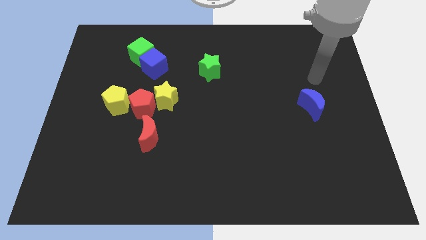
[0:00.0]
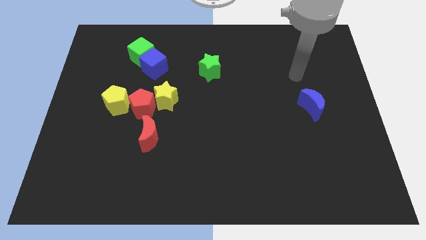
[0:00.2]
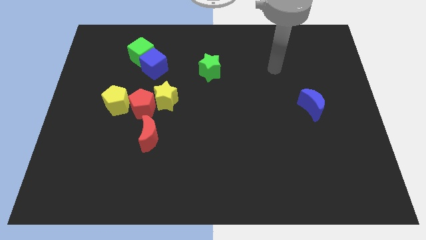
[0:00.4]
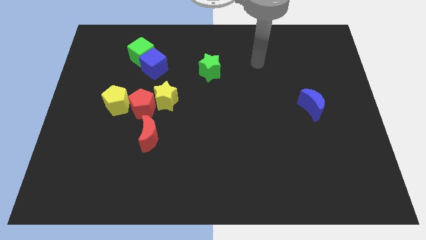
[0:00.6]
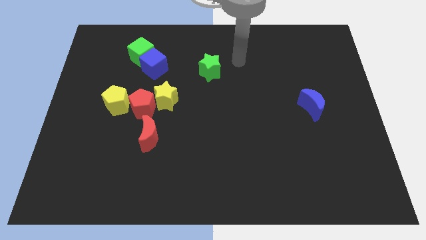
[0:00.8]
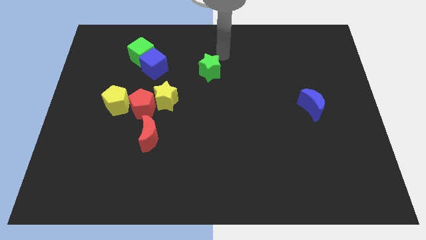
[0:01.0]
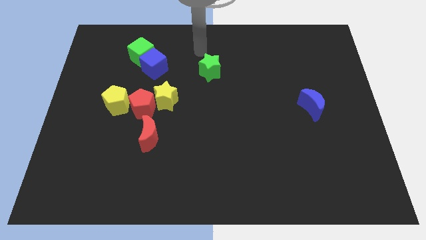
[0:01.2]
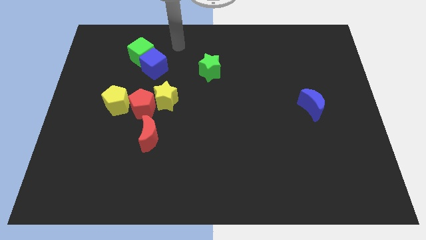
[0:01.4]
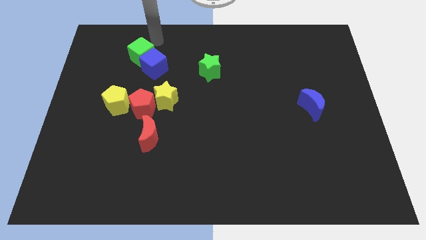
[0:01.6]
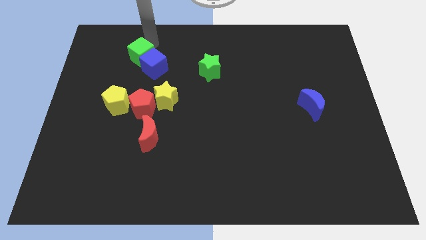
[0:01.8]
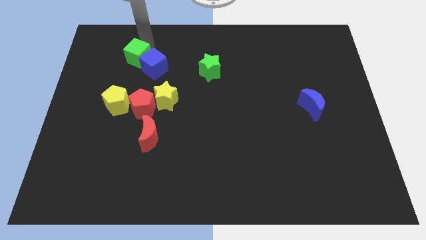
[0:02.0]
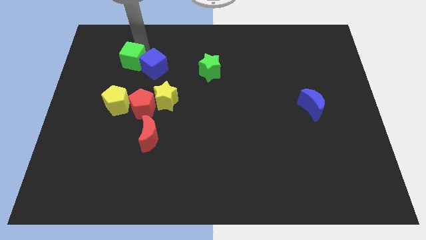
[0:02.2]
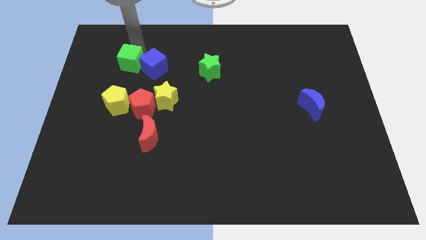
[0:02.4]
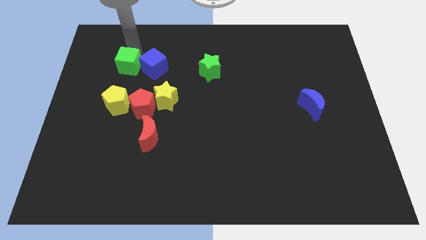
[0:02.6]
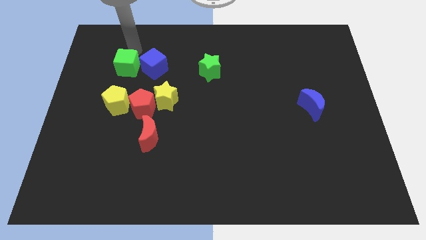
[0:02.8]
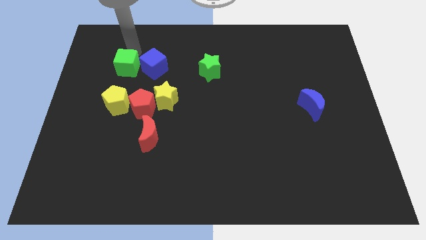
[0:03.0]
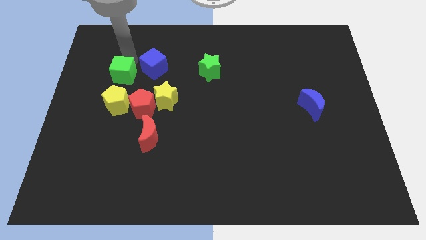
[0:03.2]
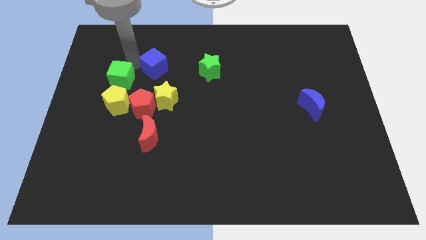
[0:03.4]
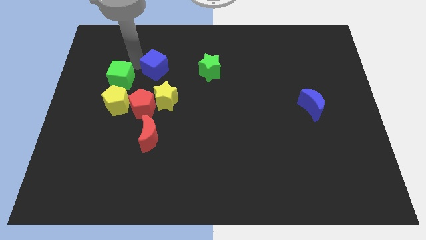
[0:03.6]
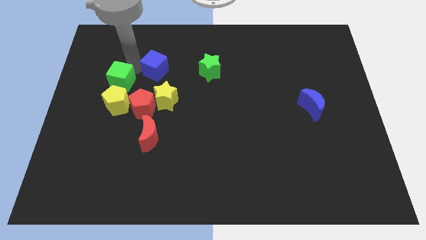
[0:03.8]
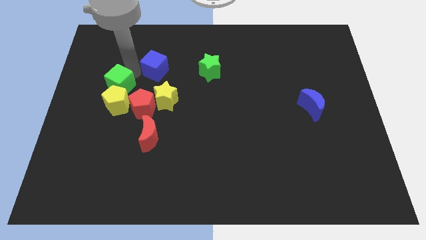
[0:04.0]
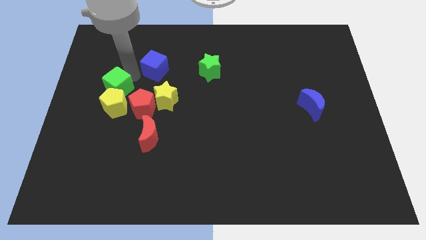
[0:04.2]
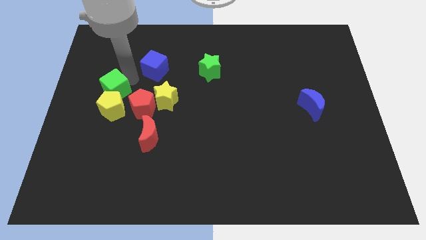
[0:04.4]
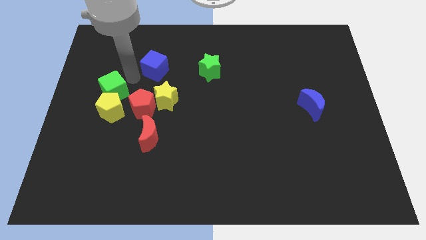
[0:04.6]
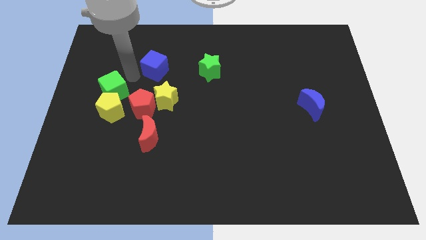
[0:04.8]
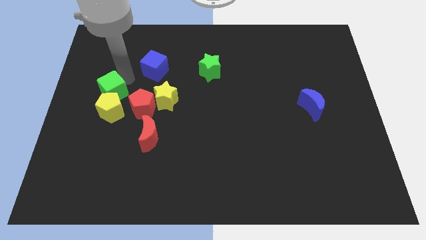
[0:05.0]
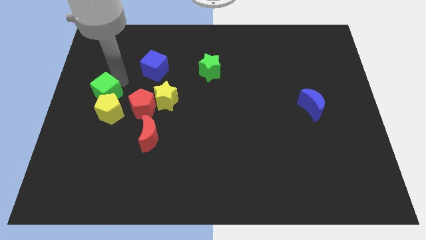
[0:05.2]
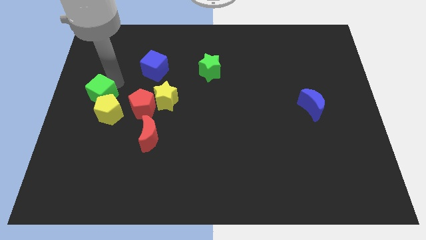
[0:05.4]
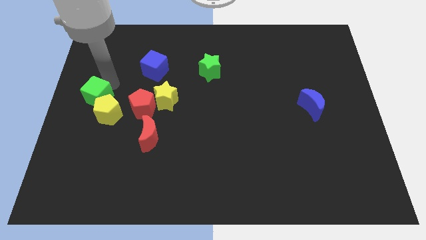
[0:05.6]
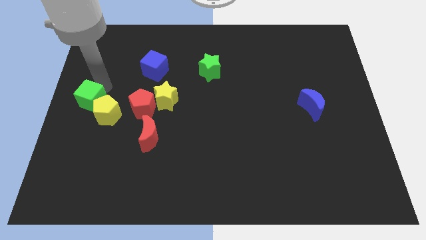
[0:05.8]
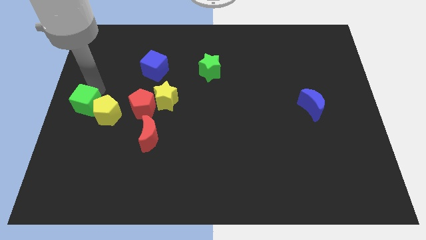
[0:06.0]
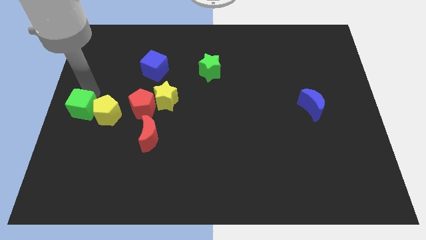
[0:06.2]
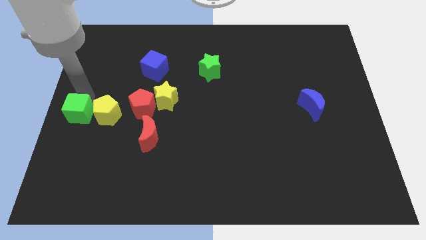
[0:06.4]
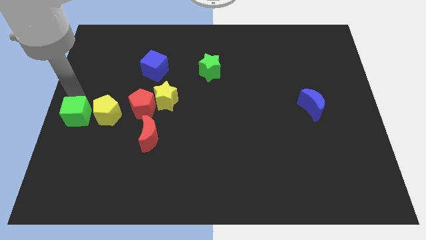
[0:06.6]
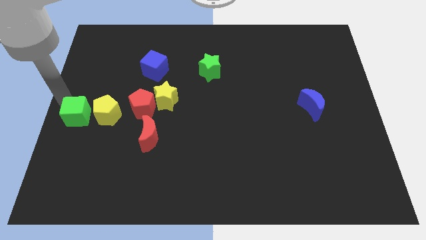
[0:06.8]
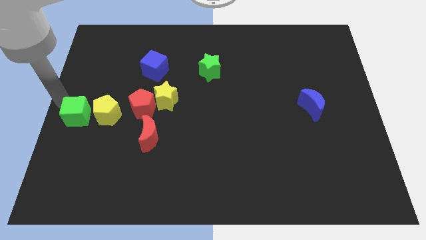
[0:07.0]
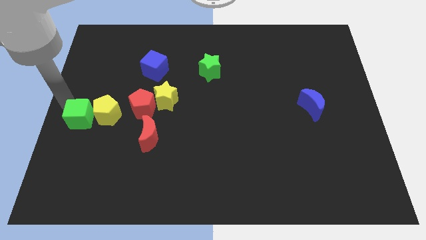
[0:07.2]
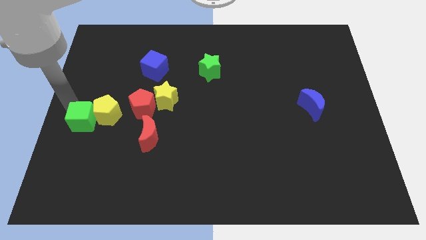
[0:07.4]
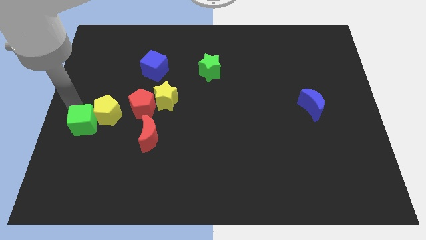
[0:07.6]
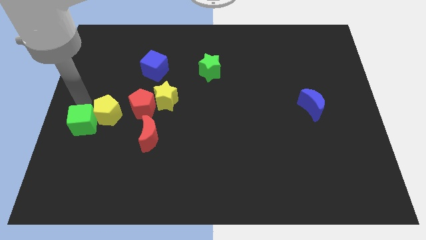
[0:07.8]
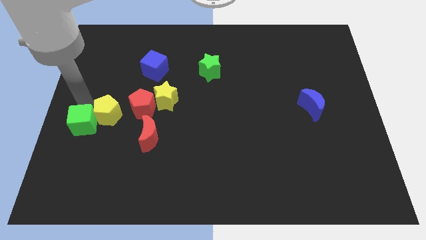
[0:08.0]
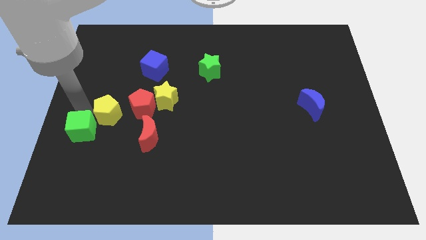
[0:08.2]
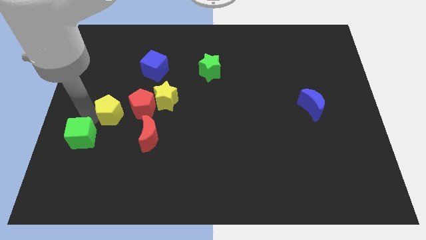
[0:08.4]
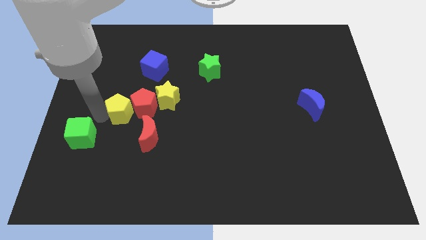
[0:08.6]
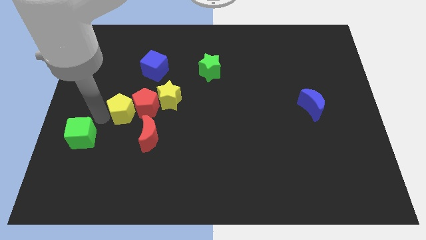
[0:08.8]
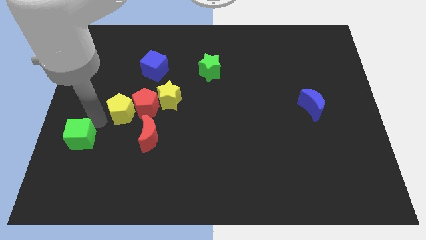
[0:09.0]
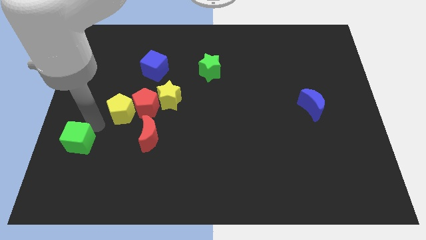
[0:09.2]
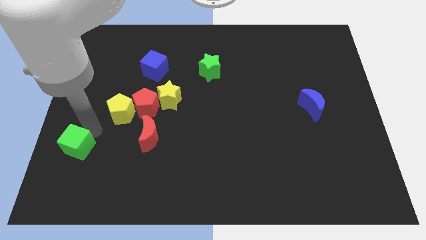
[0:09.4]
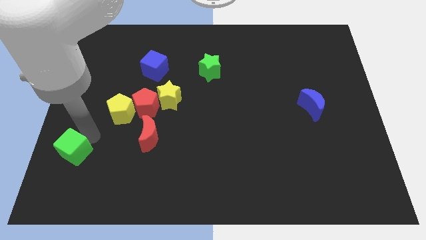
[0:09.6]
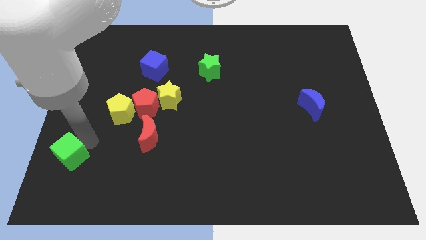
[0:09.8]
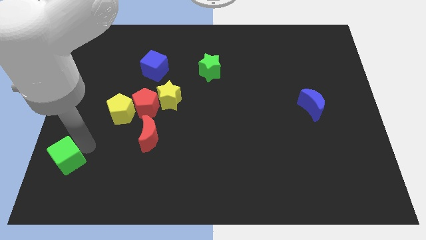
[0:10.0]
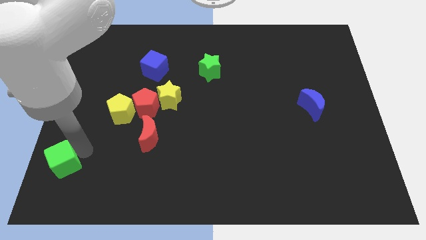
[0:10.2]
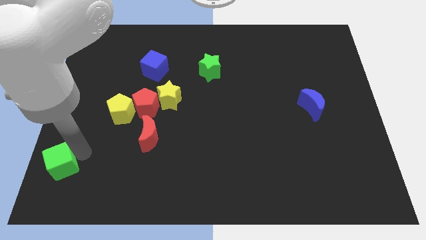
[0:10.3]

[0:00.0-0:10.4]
move the green cube to the bottom left

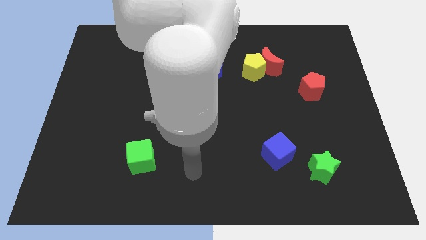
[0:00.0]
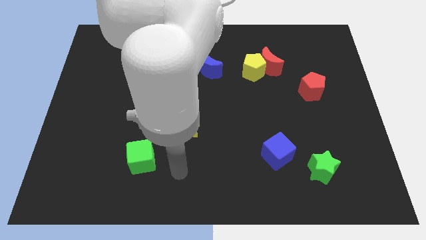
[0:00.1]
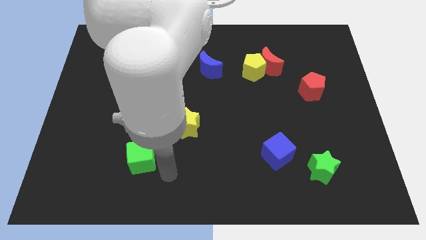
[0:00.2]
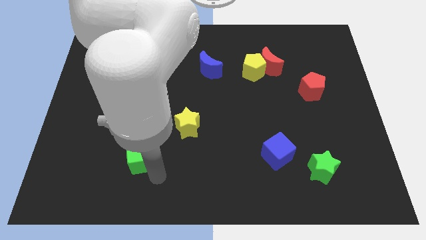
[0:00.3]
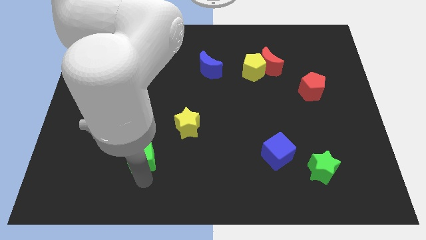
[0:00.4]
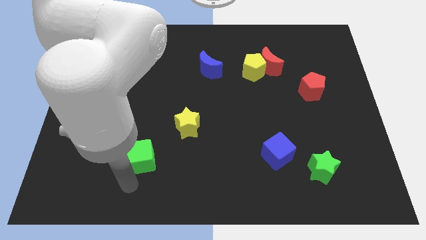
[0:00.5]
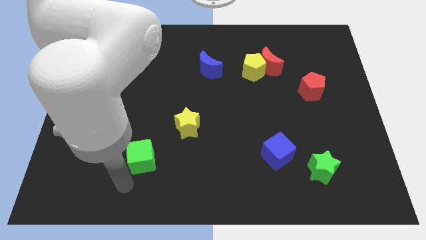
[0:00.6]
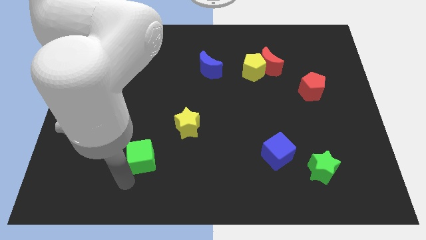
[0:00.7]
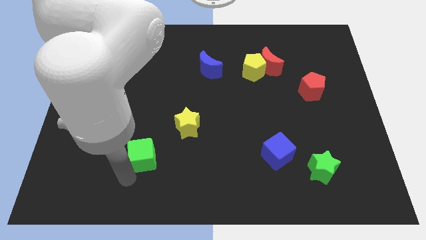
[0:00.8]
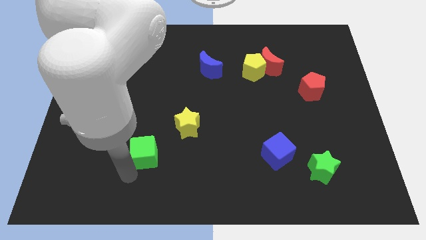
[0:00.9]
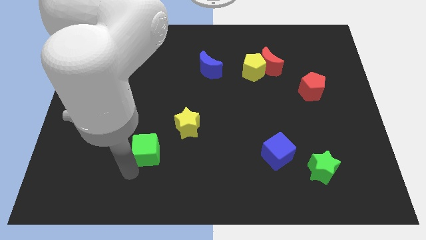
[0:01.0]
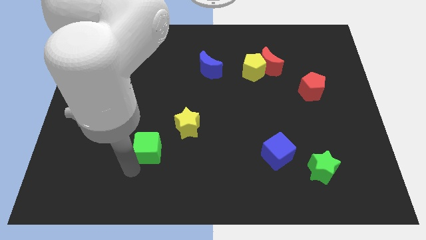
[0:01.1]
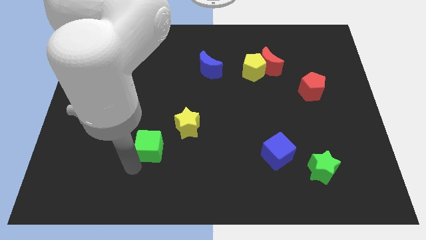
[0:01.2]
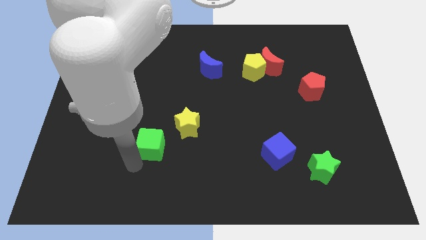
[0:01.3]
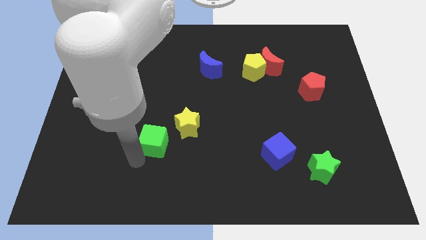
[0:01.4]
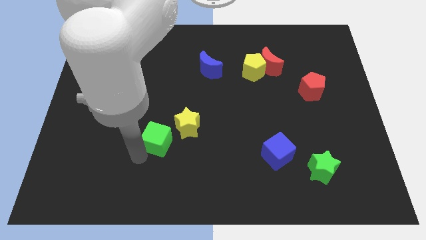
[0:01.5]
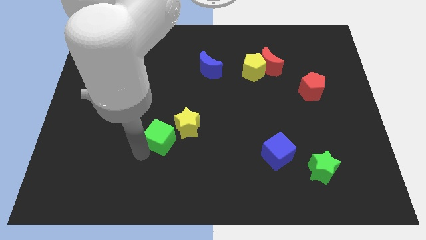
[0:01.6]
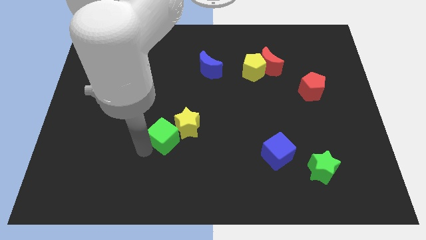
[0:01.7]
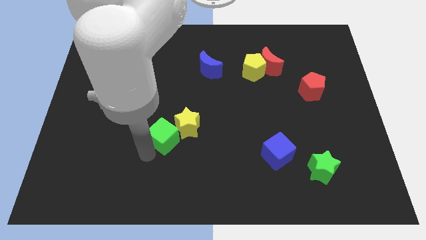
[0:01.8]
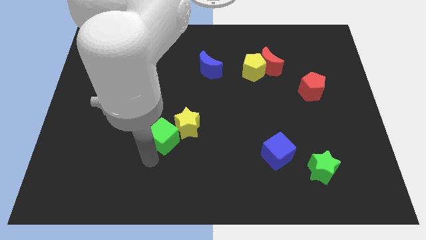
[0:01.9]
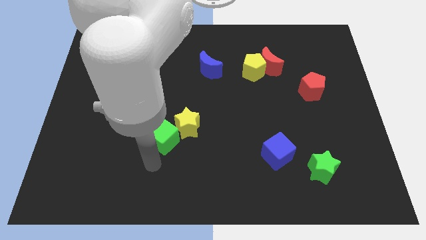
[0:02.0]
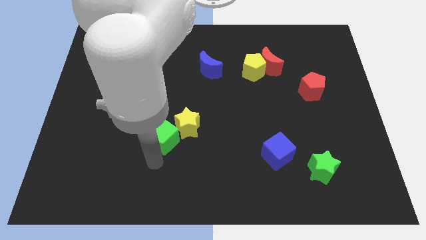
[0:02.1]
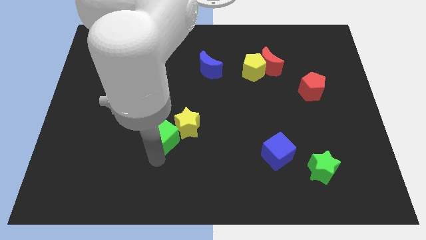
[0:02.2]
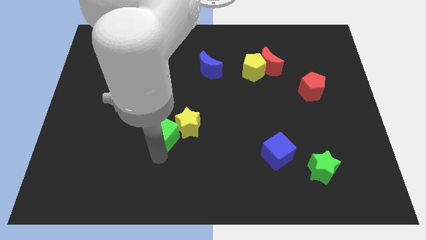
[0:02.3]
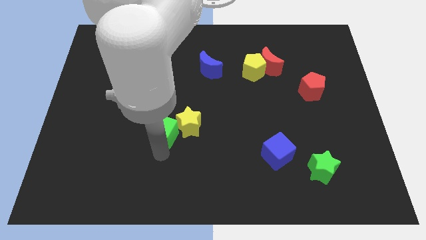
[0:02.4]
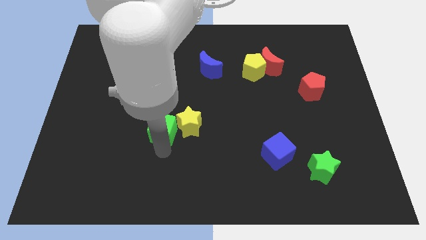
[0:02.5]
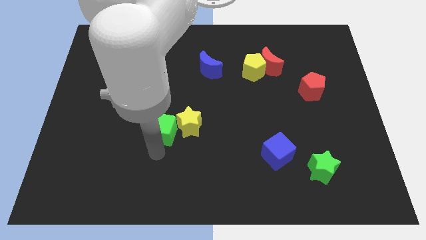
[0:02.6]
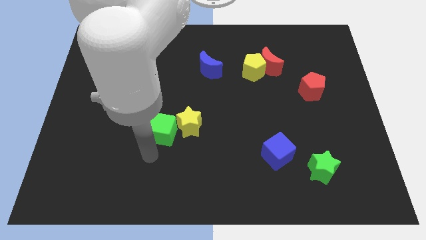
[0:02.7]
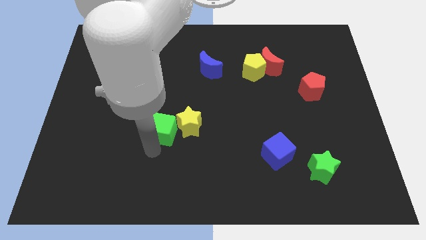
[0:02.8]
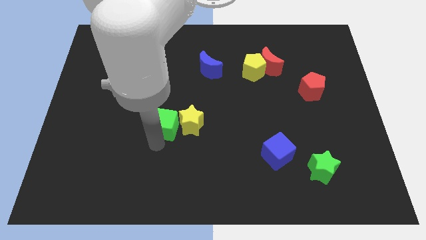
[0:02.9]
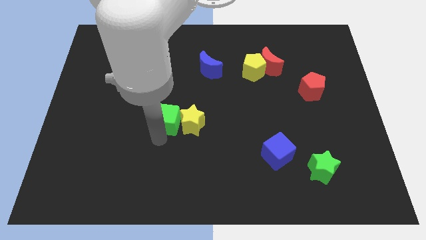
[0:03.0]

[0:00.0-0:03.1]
put the green cube to the center
